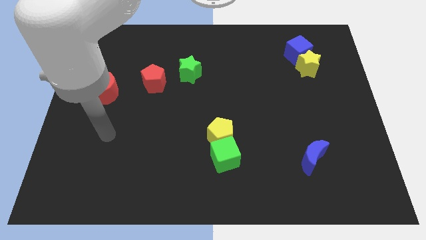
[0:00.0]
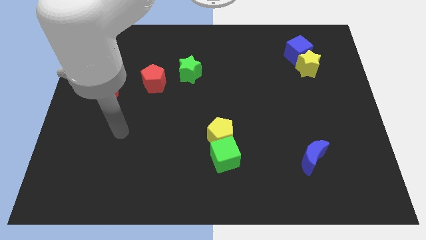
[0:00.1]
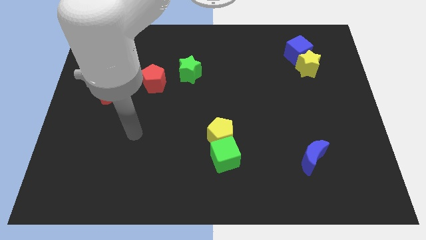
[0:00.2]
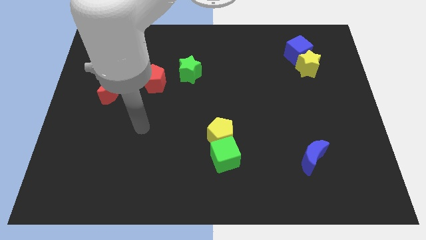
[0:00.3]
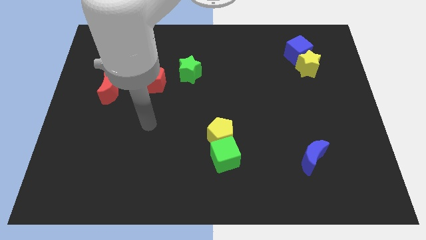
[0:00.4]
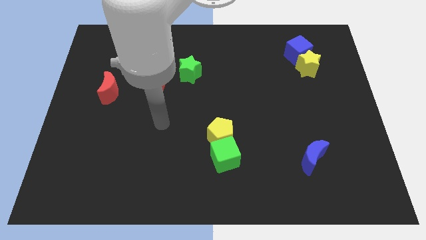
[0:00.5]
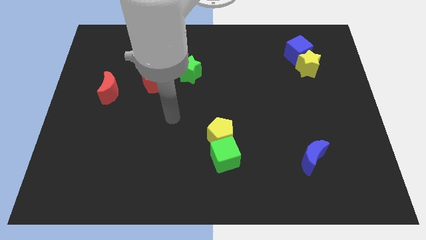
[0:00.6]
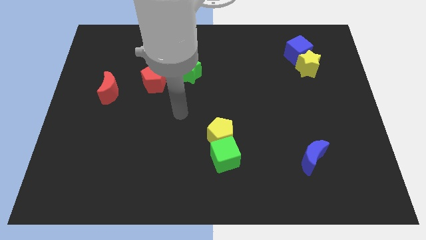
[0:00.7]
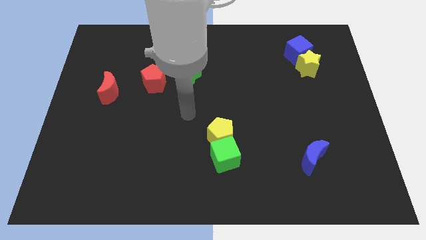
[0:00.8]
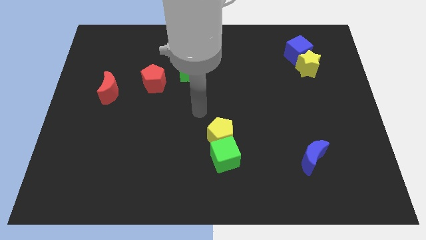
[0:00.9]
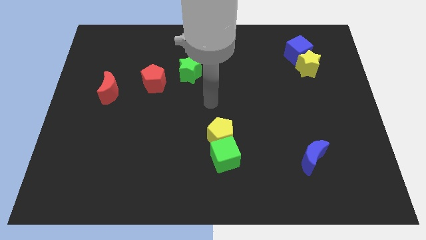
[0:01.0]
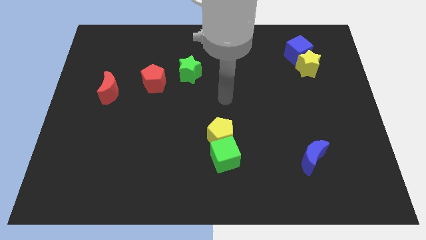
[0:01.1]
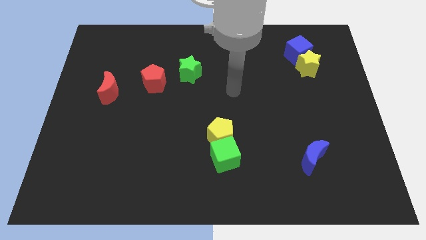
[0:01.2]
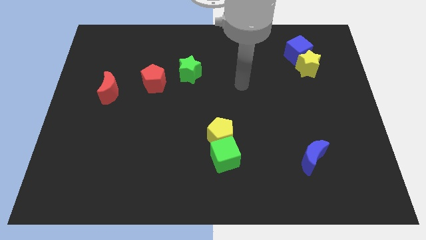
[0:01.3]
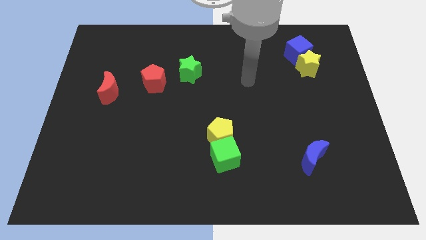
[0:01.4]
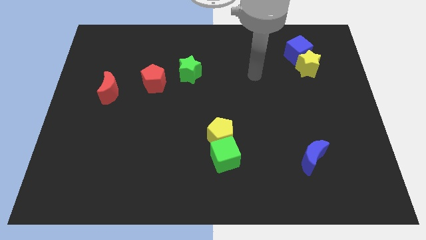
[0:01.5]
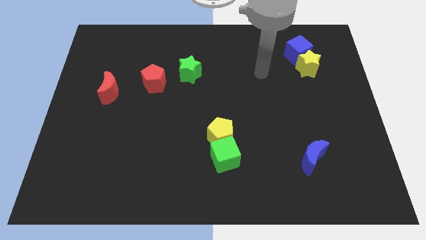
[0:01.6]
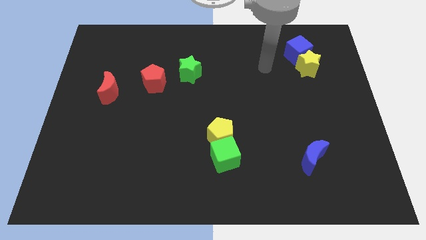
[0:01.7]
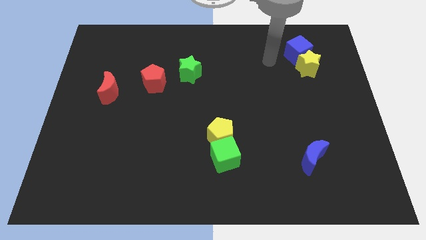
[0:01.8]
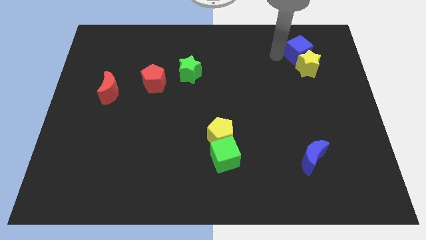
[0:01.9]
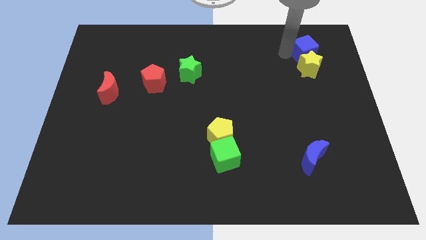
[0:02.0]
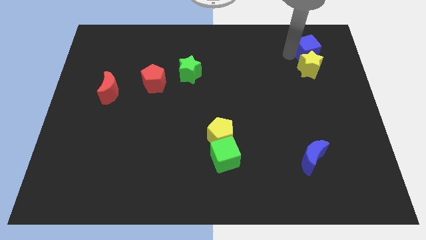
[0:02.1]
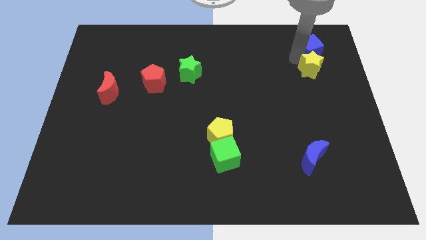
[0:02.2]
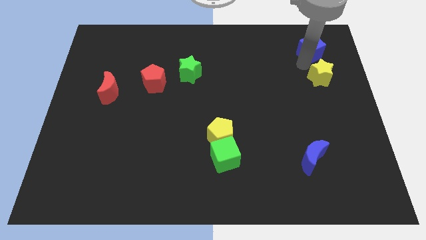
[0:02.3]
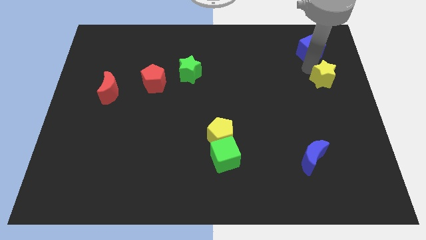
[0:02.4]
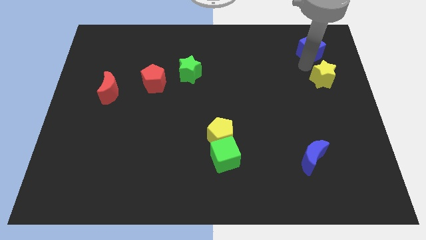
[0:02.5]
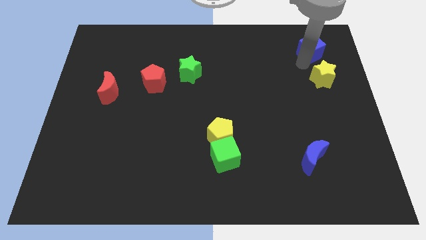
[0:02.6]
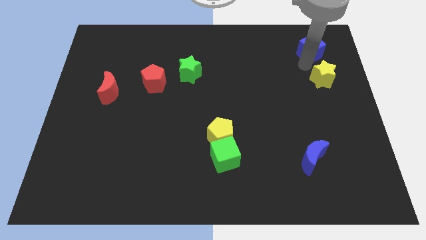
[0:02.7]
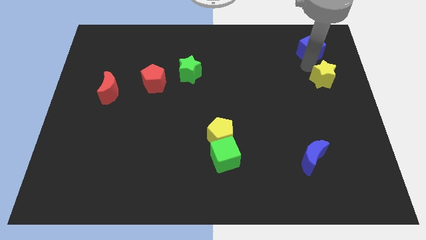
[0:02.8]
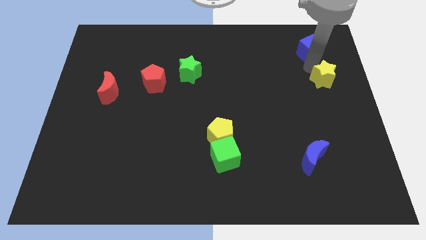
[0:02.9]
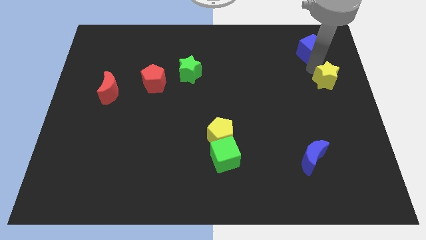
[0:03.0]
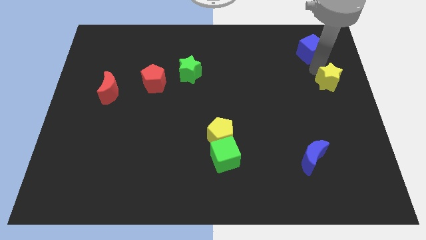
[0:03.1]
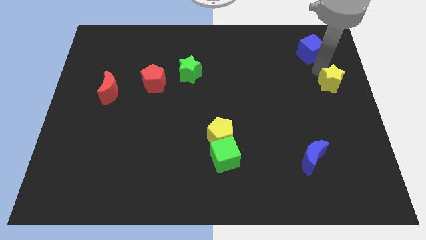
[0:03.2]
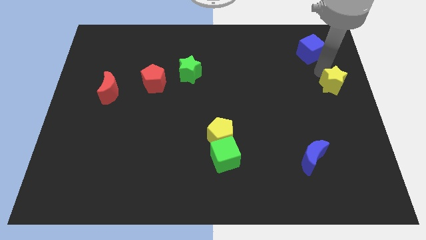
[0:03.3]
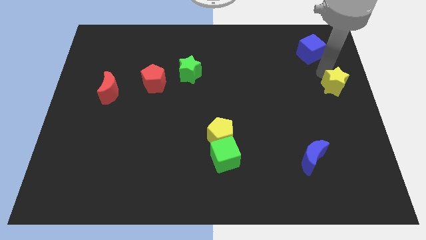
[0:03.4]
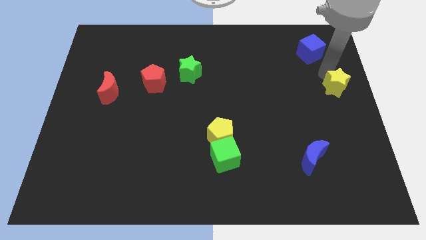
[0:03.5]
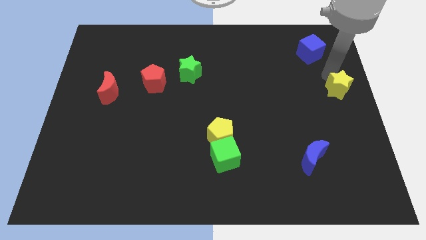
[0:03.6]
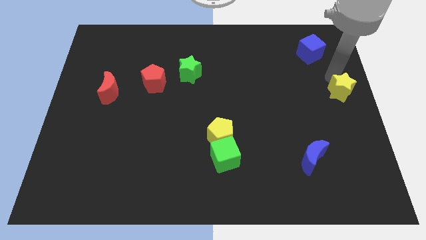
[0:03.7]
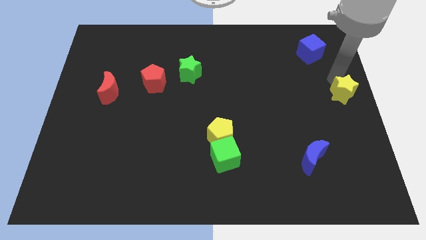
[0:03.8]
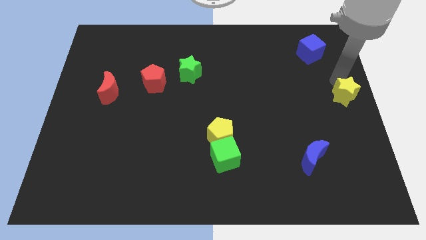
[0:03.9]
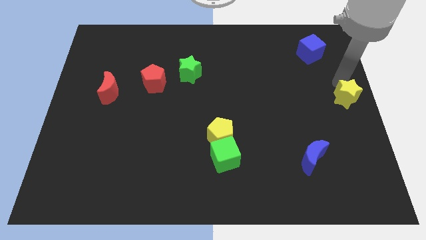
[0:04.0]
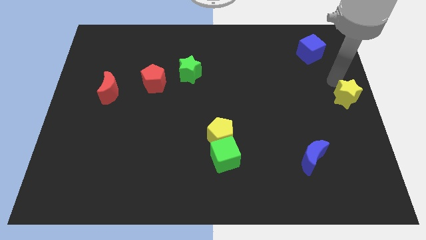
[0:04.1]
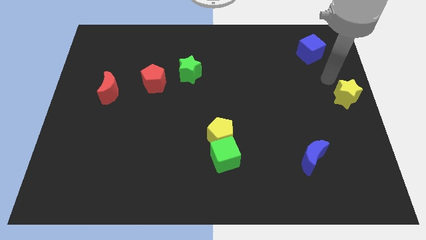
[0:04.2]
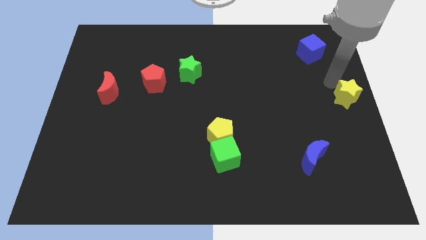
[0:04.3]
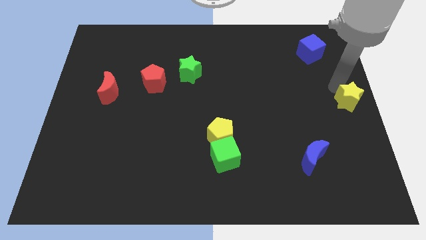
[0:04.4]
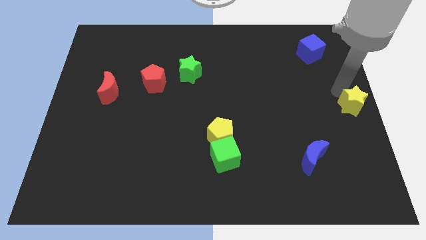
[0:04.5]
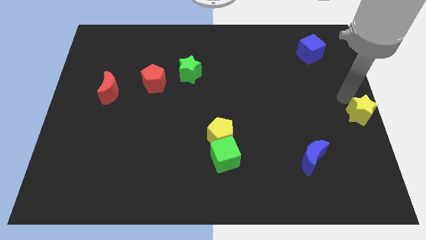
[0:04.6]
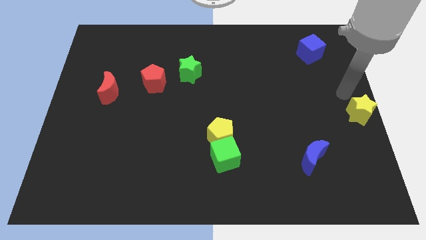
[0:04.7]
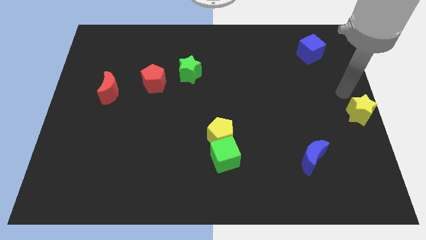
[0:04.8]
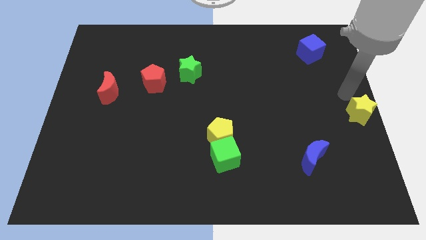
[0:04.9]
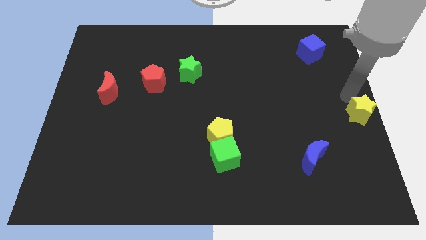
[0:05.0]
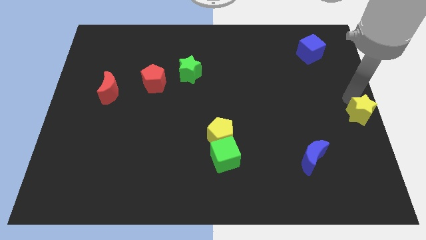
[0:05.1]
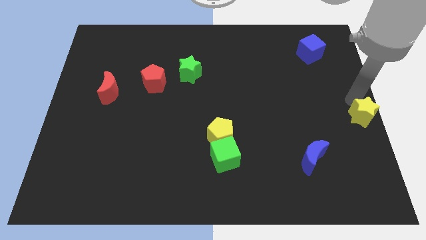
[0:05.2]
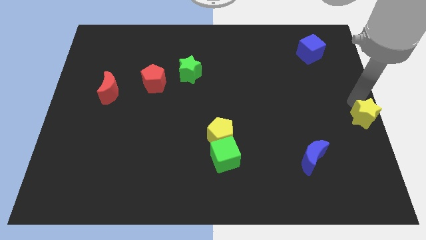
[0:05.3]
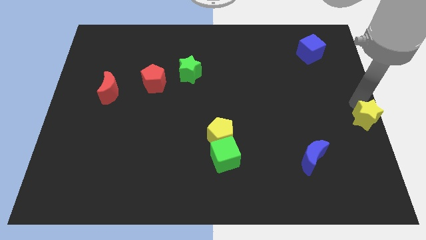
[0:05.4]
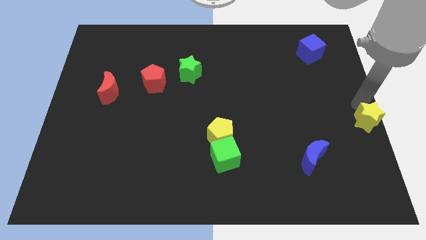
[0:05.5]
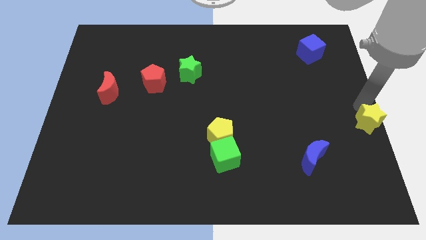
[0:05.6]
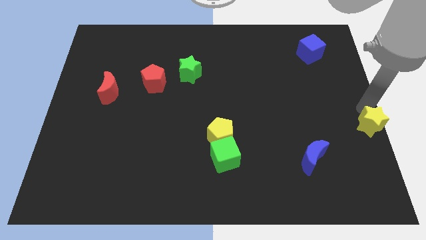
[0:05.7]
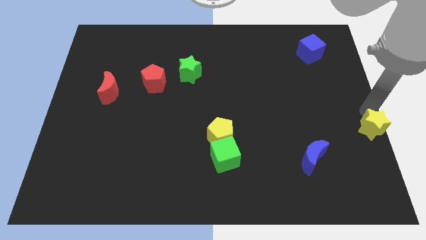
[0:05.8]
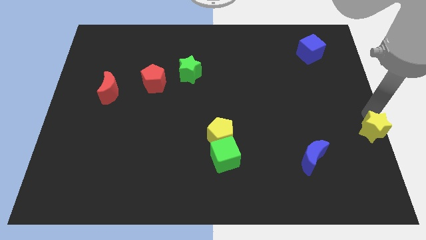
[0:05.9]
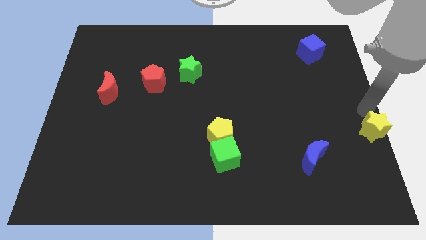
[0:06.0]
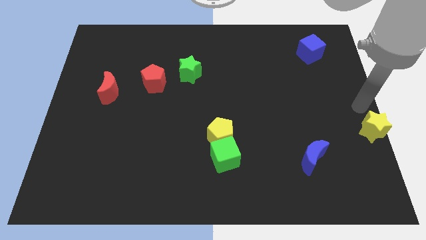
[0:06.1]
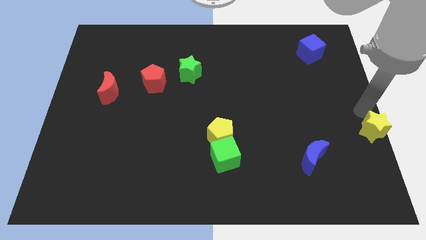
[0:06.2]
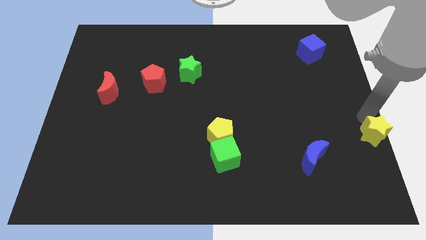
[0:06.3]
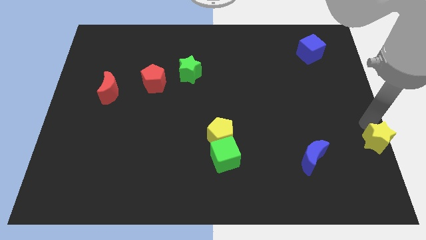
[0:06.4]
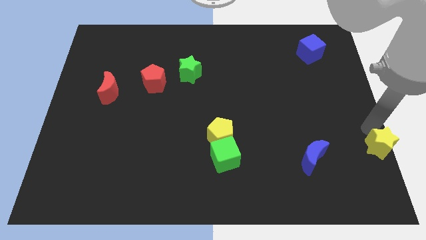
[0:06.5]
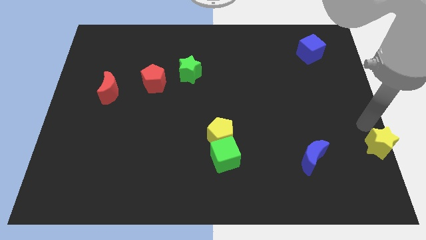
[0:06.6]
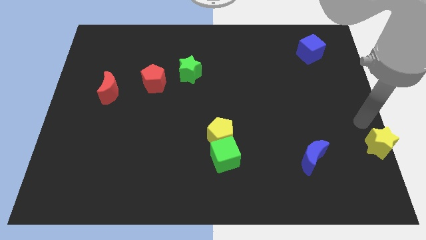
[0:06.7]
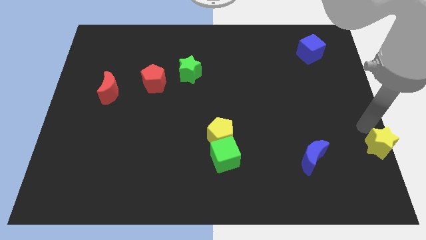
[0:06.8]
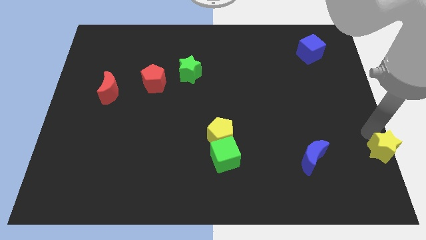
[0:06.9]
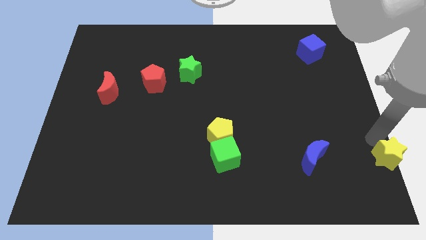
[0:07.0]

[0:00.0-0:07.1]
move the yellow star to the bottom right of the board

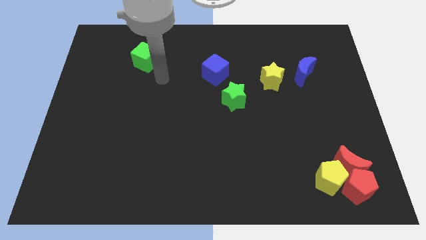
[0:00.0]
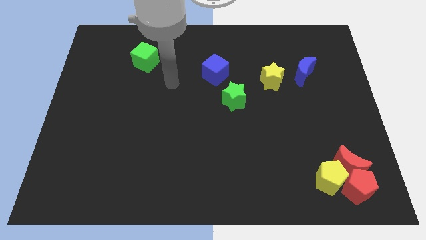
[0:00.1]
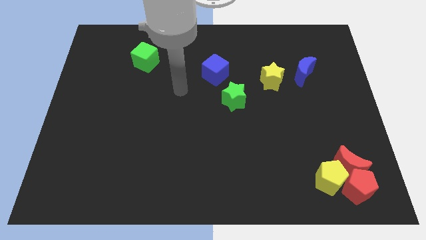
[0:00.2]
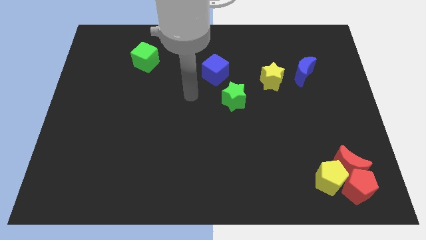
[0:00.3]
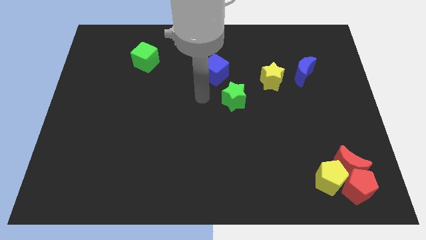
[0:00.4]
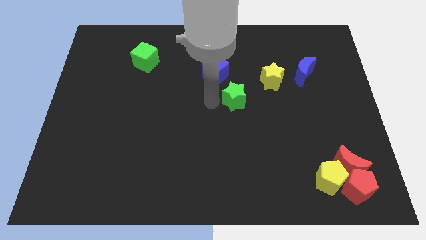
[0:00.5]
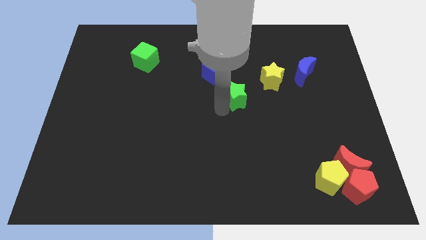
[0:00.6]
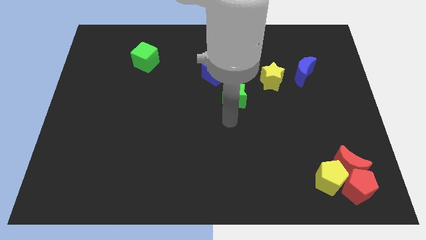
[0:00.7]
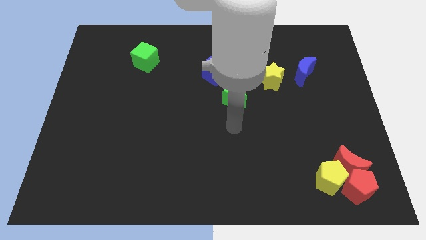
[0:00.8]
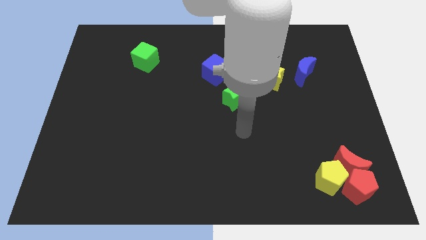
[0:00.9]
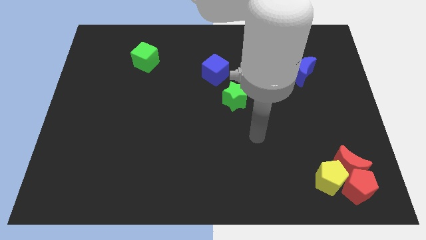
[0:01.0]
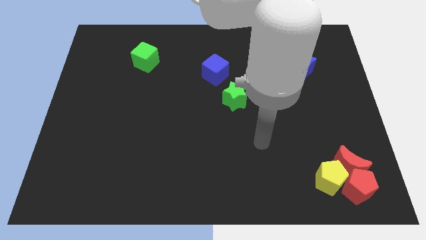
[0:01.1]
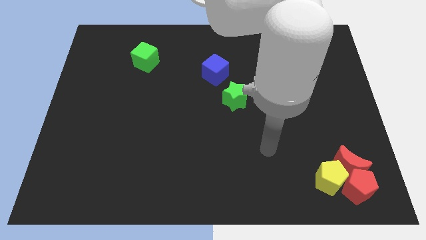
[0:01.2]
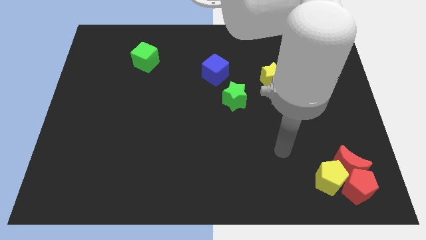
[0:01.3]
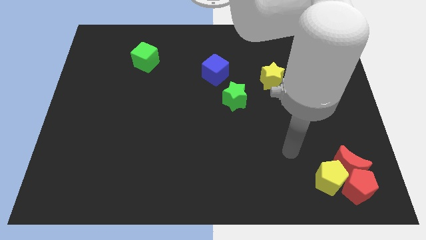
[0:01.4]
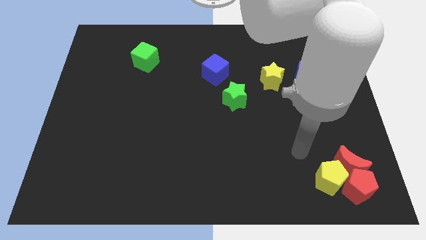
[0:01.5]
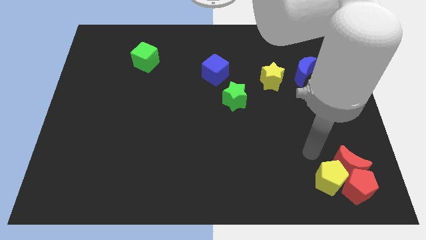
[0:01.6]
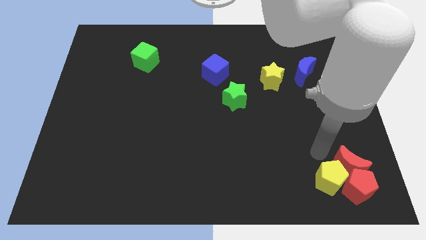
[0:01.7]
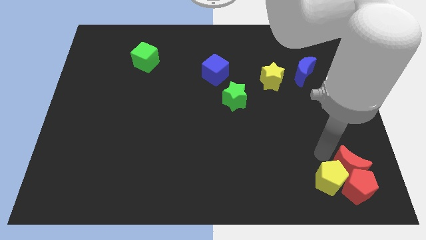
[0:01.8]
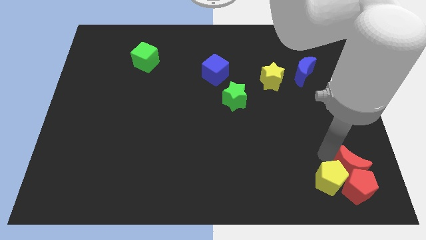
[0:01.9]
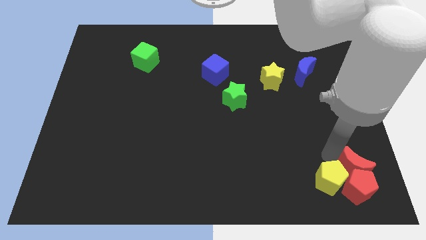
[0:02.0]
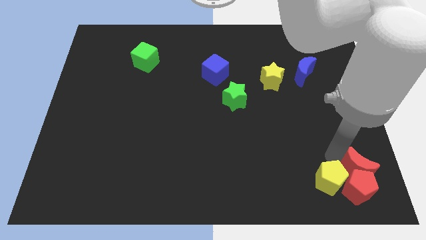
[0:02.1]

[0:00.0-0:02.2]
put the red moon to the bottom right corner
